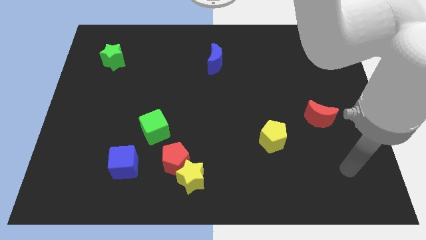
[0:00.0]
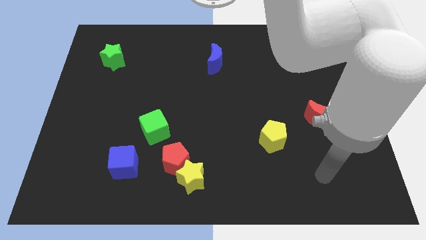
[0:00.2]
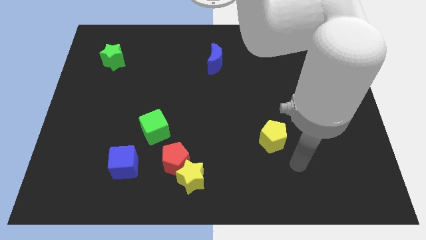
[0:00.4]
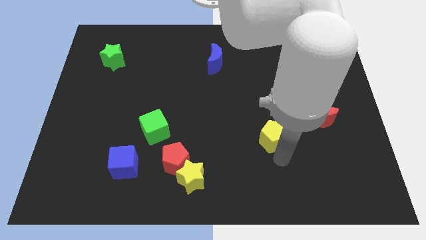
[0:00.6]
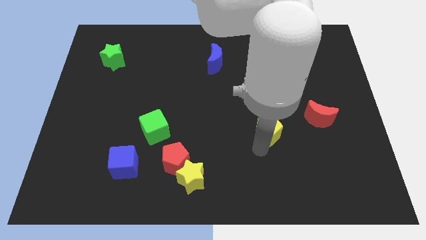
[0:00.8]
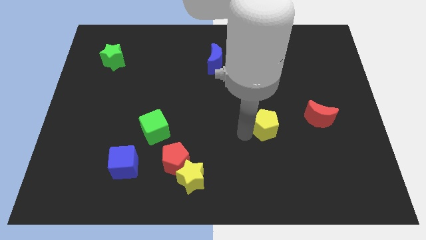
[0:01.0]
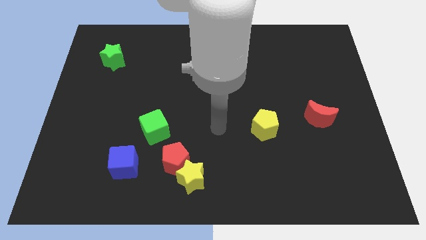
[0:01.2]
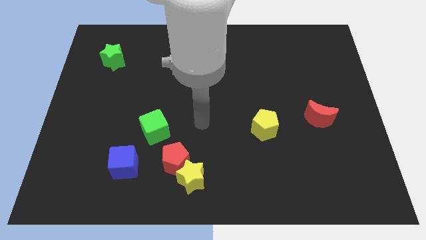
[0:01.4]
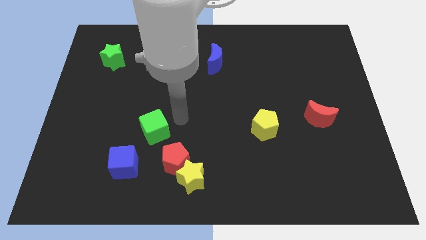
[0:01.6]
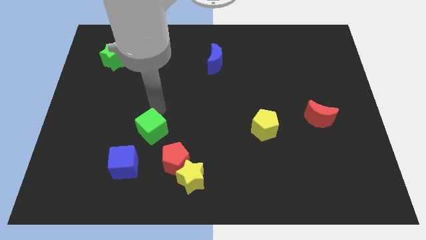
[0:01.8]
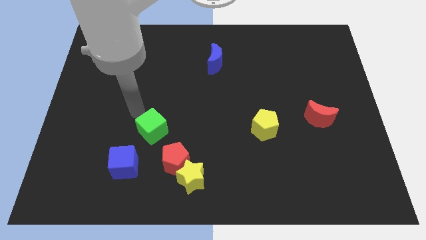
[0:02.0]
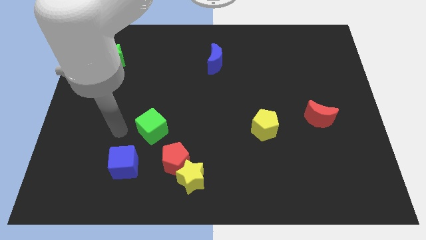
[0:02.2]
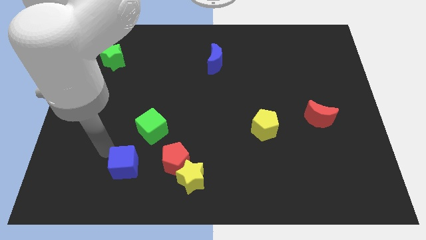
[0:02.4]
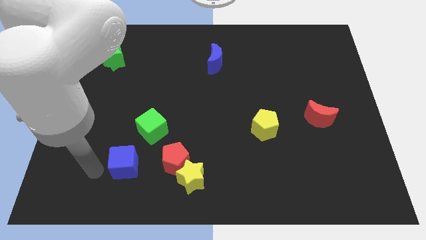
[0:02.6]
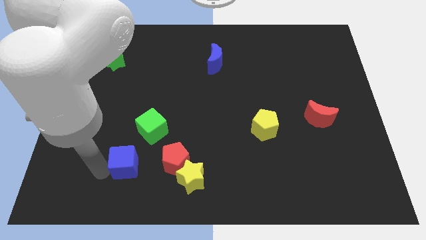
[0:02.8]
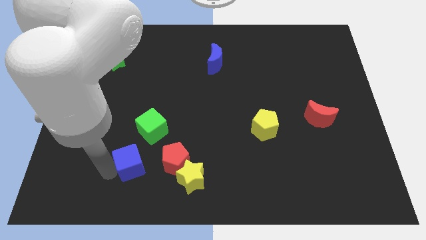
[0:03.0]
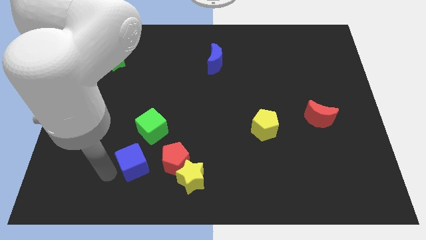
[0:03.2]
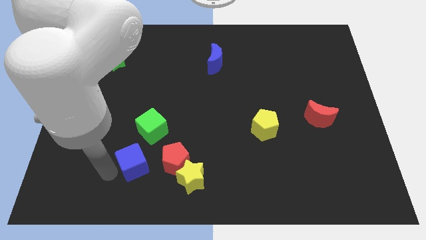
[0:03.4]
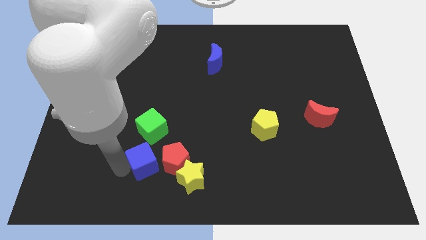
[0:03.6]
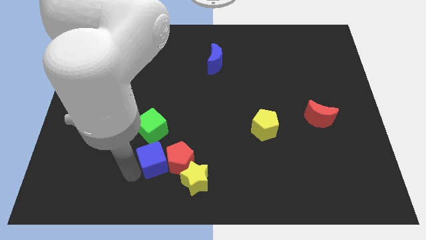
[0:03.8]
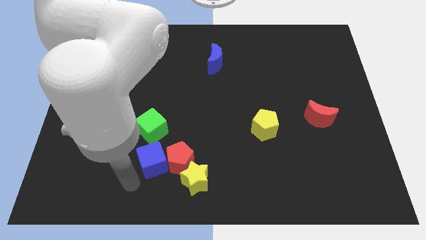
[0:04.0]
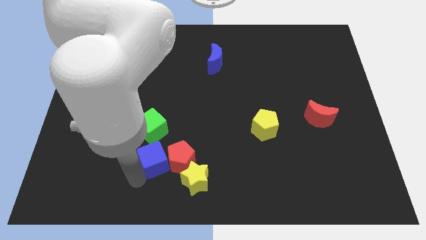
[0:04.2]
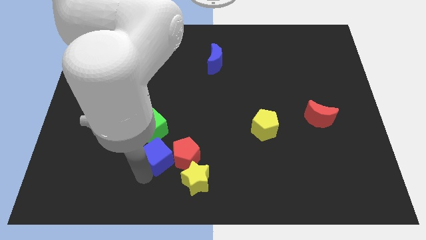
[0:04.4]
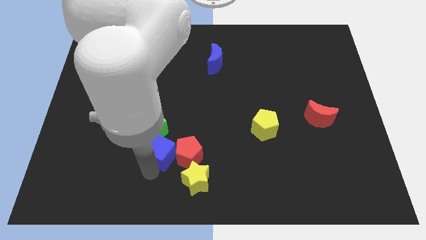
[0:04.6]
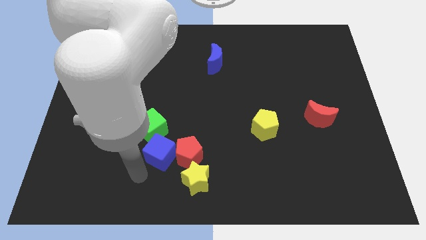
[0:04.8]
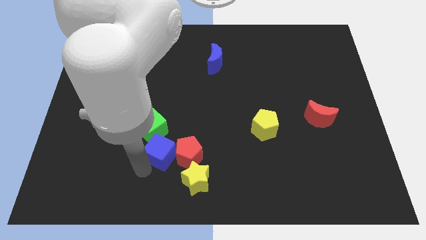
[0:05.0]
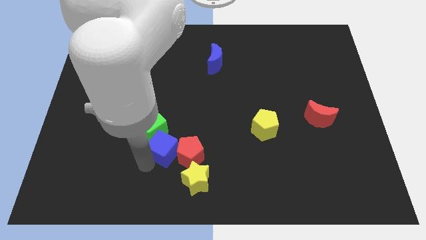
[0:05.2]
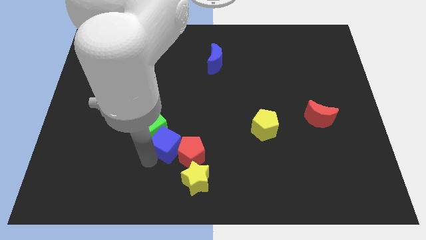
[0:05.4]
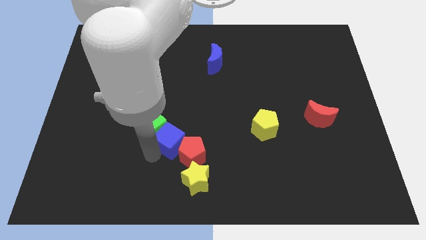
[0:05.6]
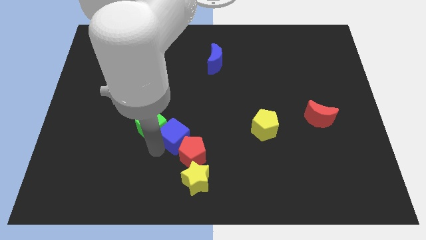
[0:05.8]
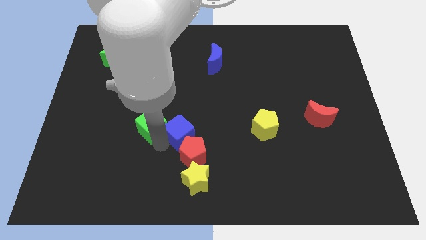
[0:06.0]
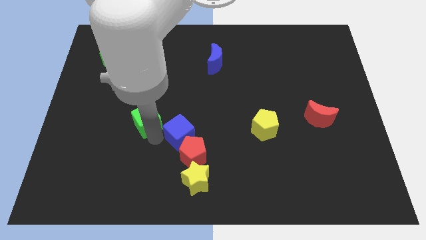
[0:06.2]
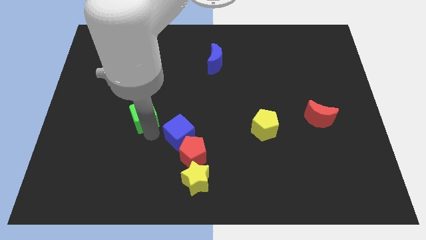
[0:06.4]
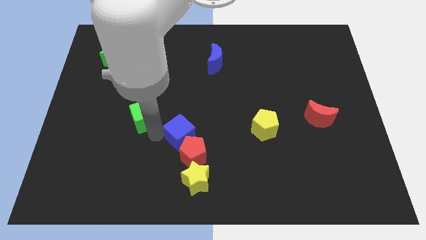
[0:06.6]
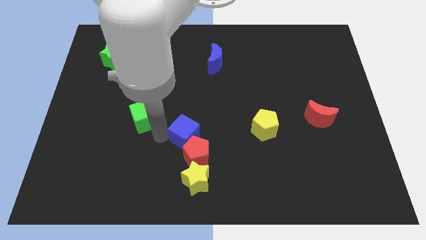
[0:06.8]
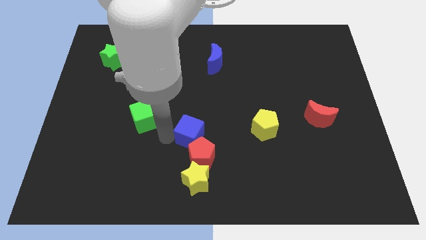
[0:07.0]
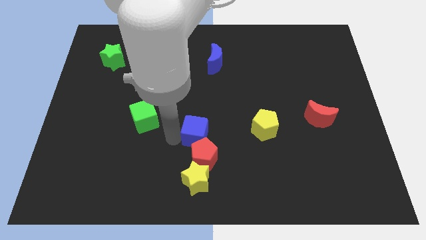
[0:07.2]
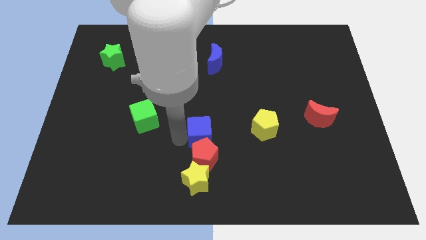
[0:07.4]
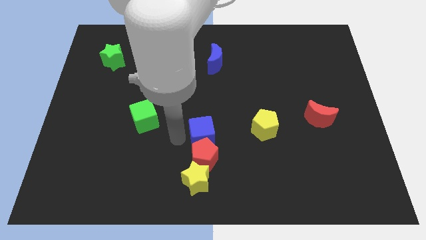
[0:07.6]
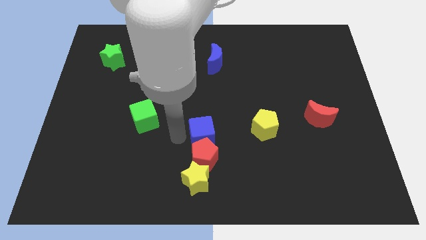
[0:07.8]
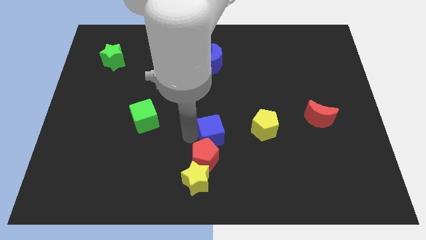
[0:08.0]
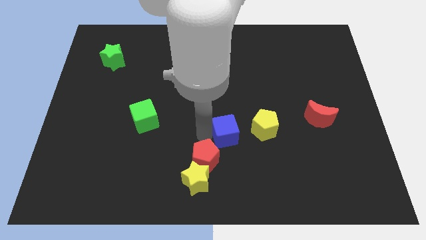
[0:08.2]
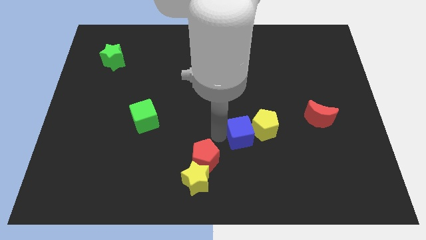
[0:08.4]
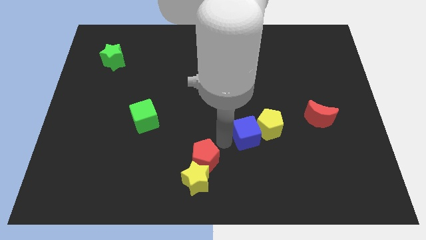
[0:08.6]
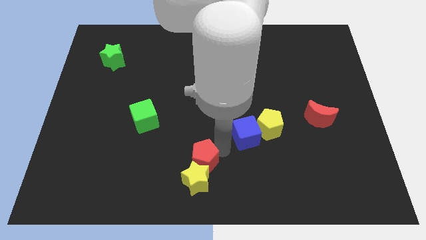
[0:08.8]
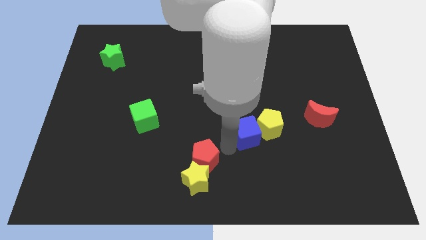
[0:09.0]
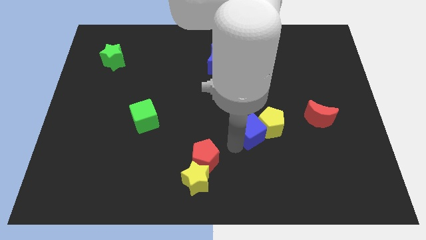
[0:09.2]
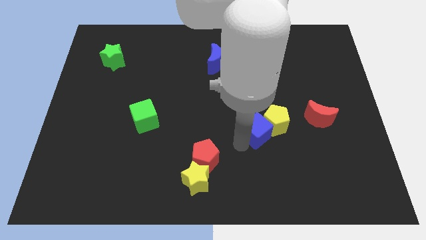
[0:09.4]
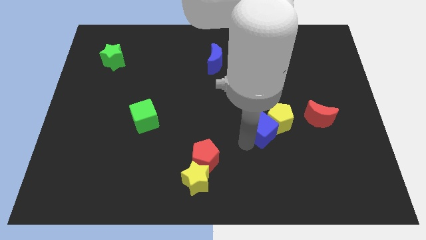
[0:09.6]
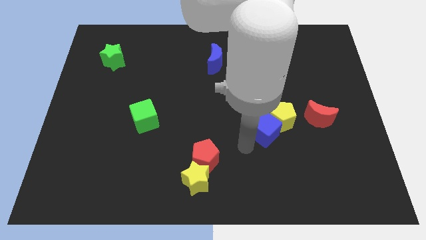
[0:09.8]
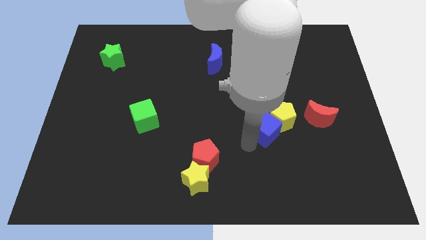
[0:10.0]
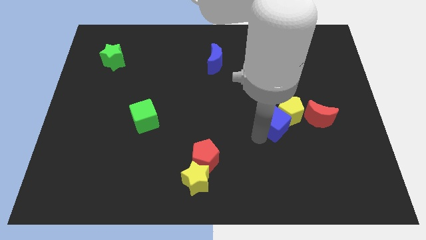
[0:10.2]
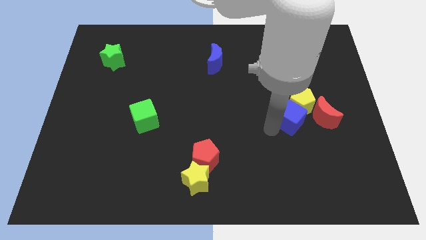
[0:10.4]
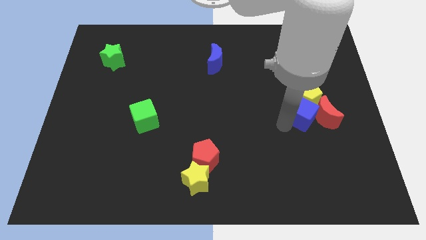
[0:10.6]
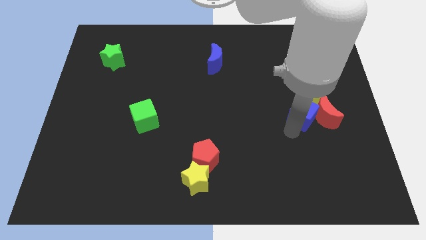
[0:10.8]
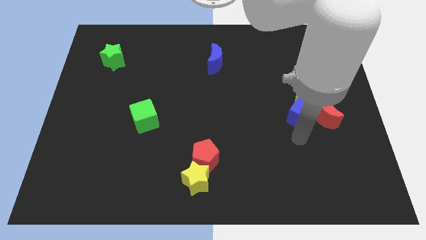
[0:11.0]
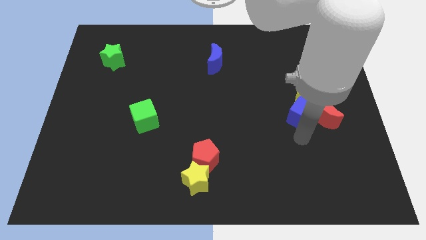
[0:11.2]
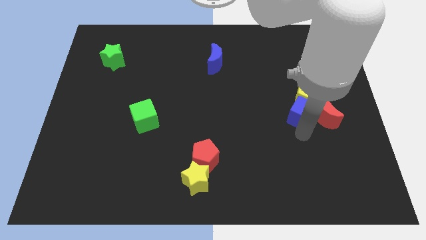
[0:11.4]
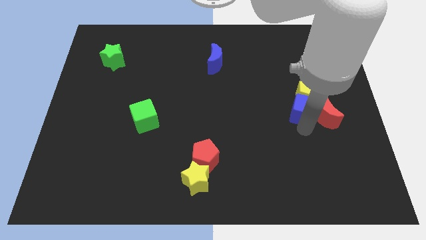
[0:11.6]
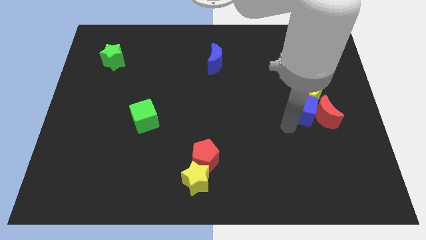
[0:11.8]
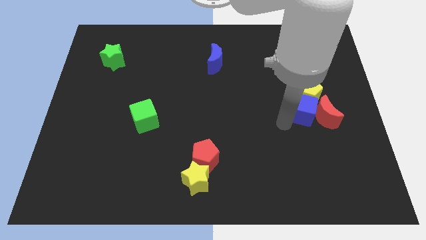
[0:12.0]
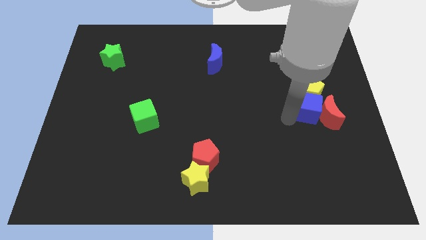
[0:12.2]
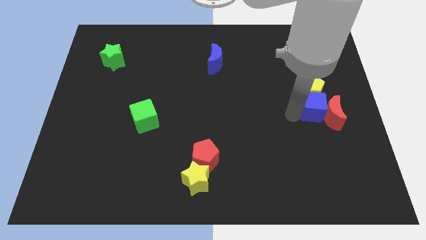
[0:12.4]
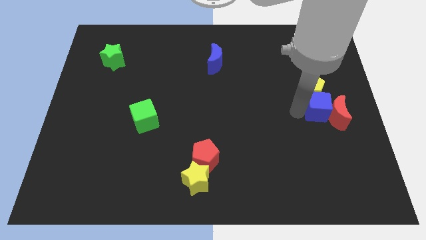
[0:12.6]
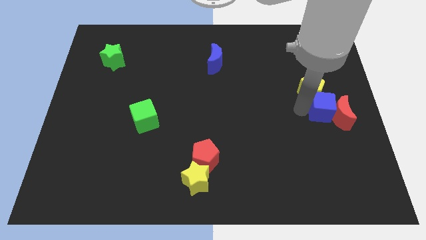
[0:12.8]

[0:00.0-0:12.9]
move the blue cube to the right side of the board
